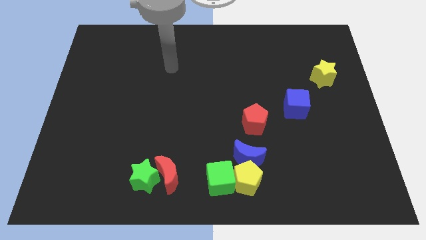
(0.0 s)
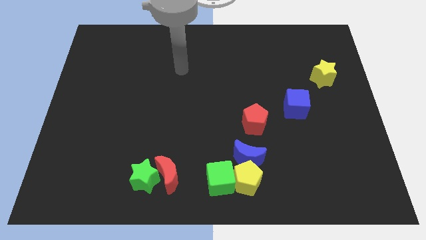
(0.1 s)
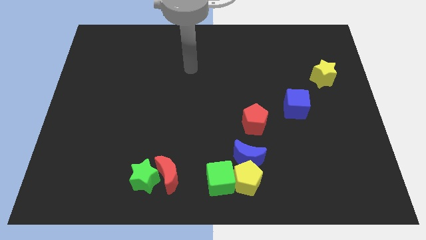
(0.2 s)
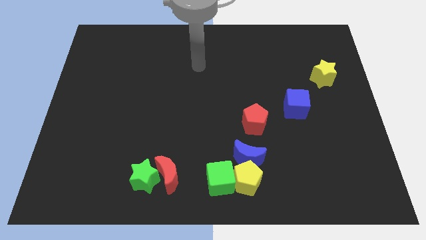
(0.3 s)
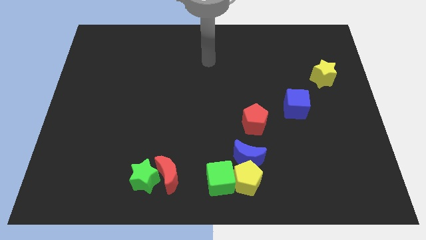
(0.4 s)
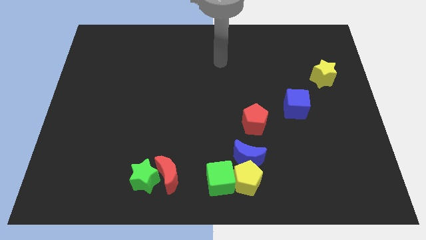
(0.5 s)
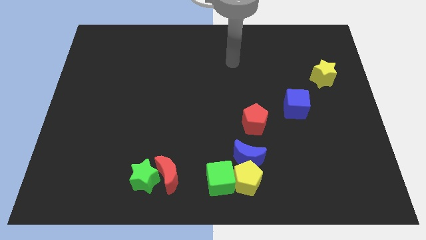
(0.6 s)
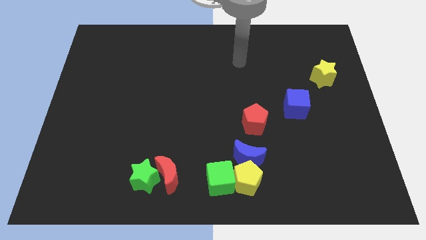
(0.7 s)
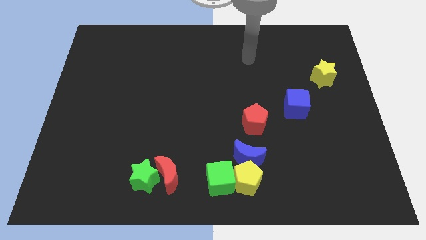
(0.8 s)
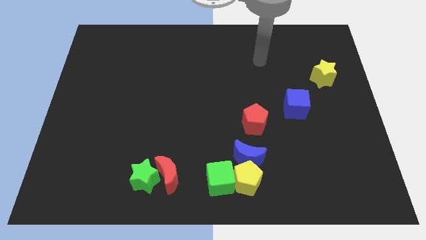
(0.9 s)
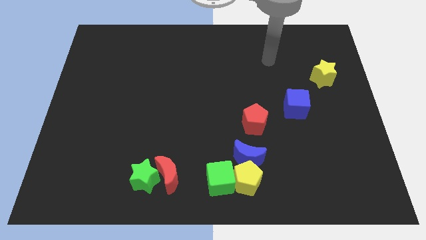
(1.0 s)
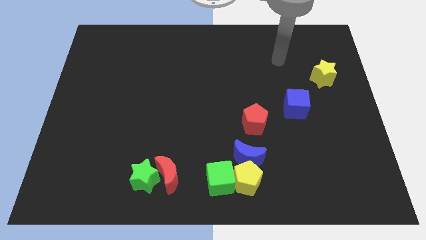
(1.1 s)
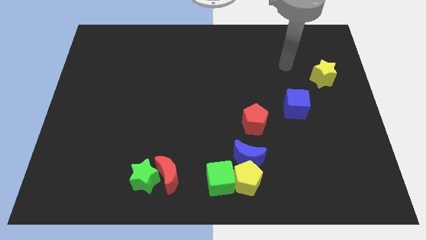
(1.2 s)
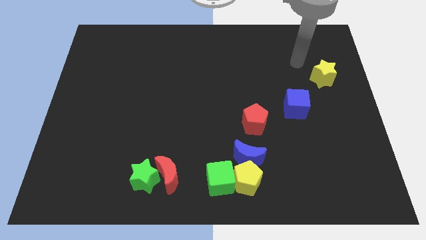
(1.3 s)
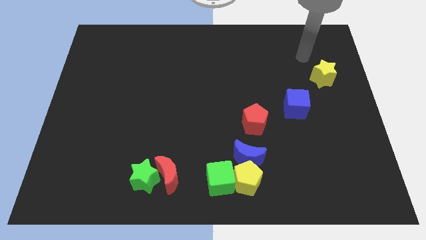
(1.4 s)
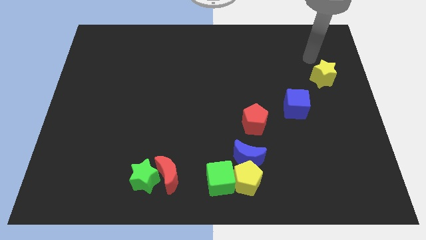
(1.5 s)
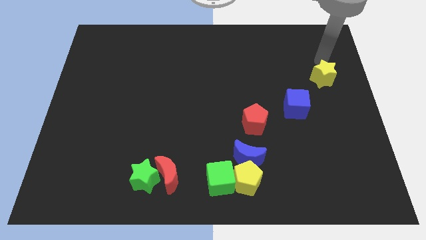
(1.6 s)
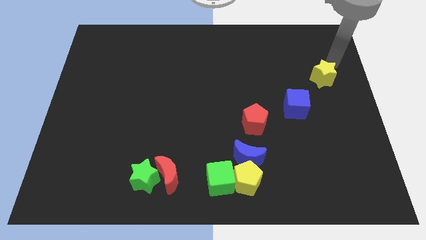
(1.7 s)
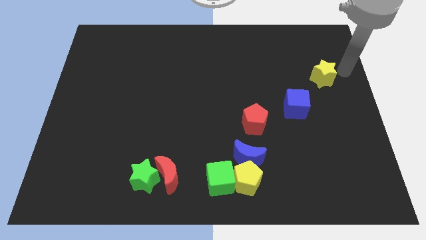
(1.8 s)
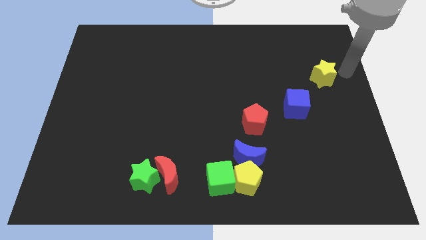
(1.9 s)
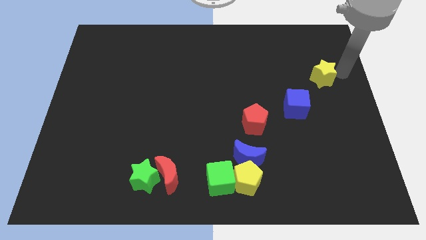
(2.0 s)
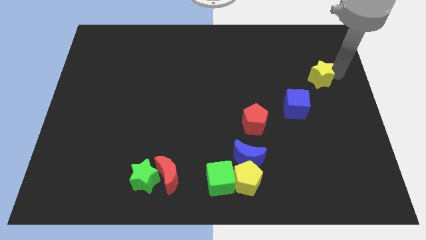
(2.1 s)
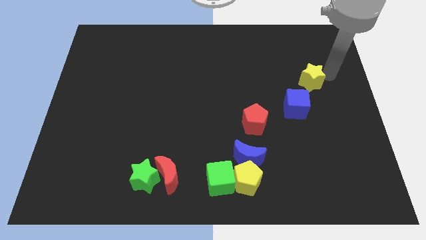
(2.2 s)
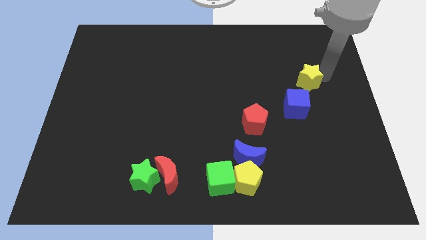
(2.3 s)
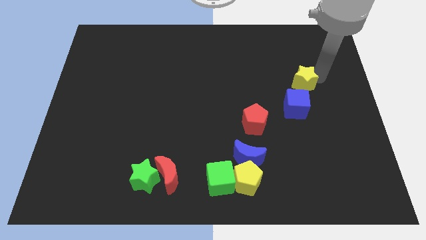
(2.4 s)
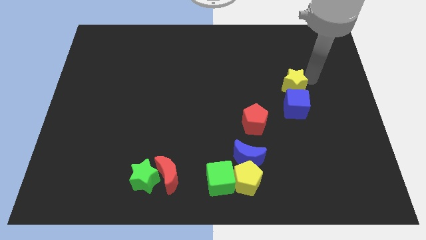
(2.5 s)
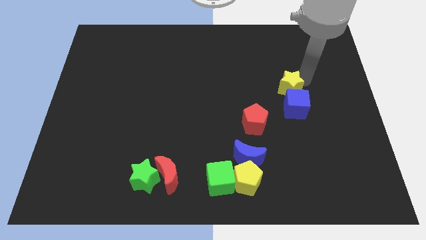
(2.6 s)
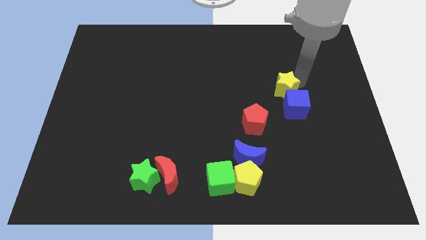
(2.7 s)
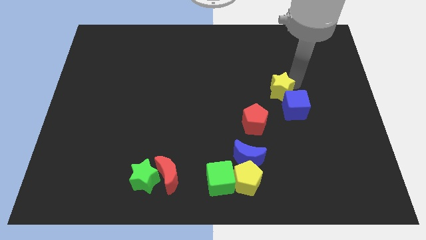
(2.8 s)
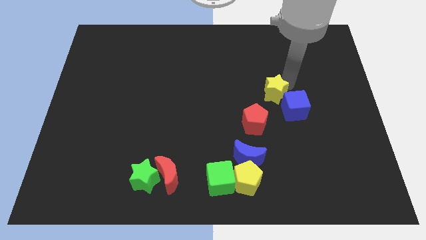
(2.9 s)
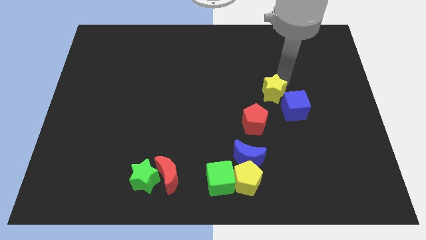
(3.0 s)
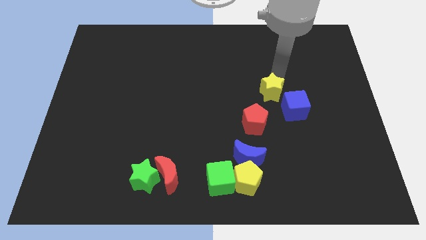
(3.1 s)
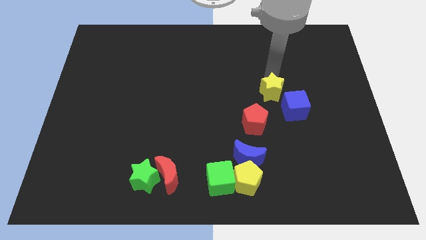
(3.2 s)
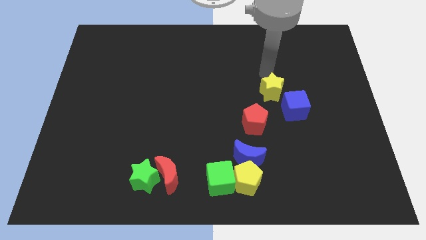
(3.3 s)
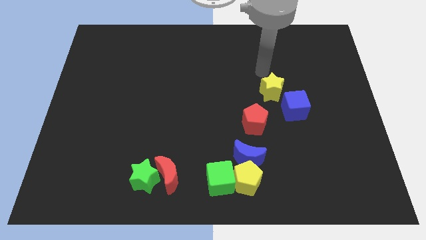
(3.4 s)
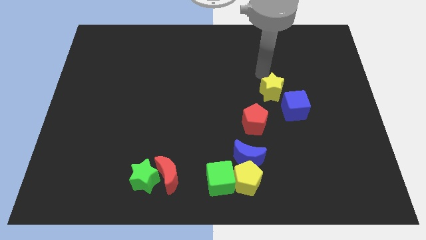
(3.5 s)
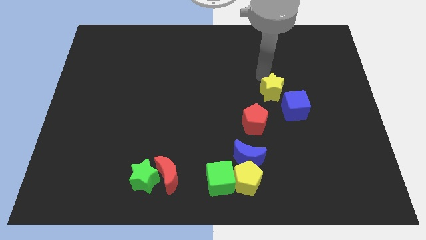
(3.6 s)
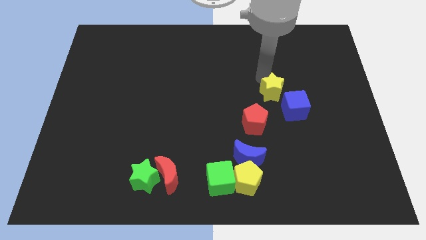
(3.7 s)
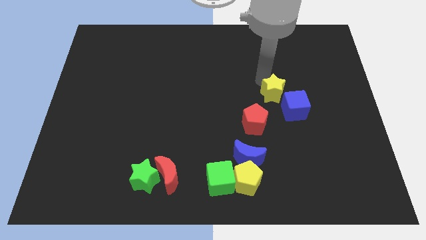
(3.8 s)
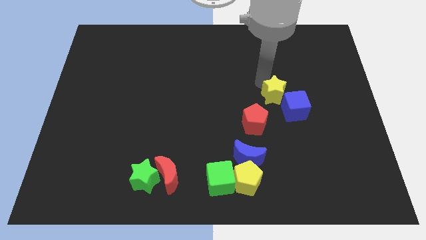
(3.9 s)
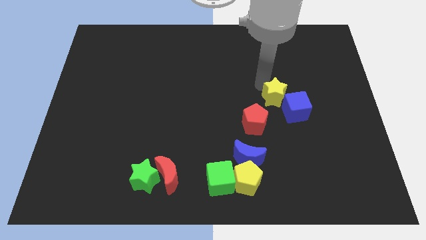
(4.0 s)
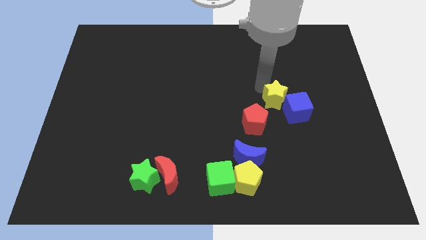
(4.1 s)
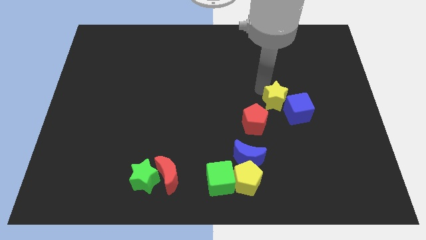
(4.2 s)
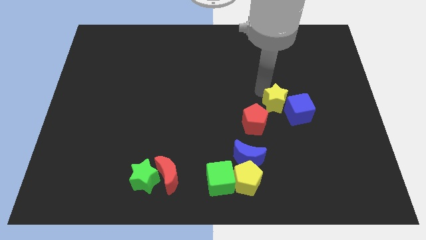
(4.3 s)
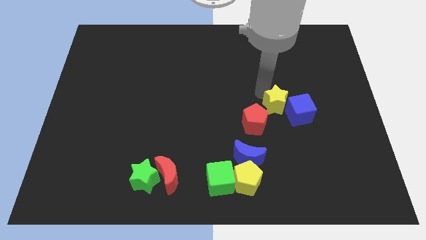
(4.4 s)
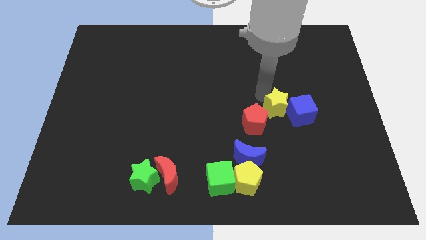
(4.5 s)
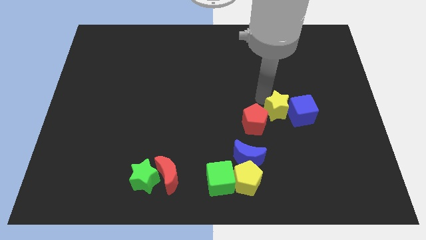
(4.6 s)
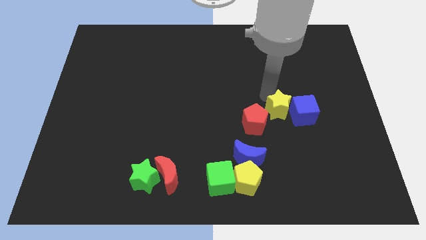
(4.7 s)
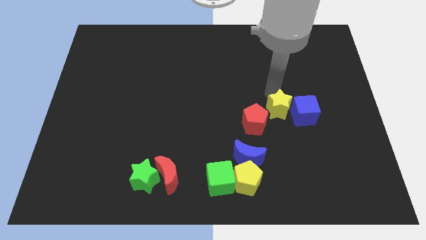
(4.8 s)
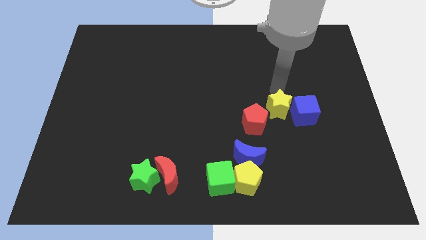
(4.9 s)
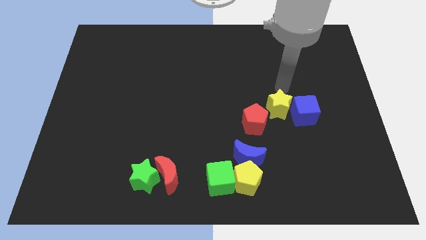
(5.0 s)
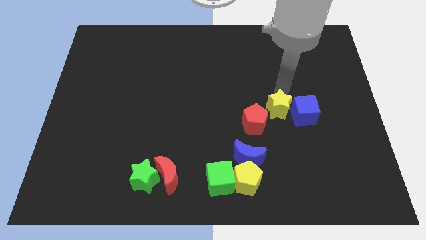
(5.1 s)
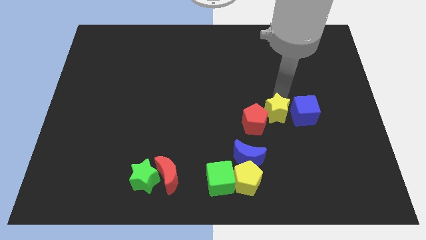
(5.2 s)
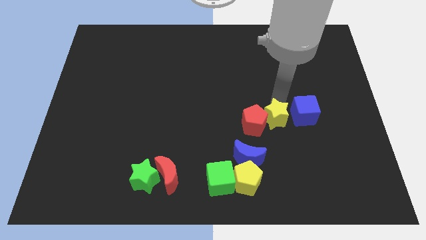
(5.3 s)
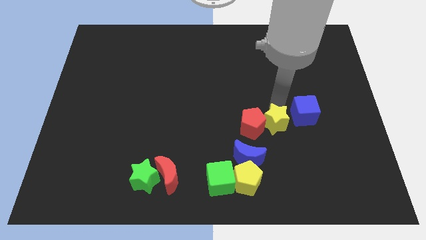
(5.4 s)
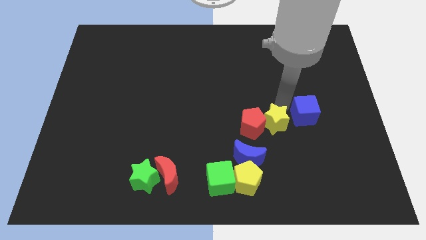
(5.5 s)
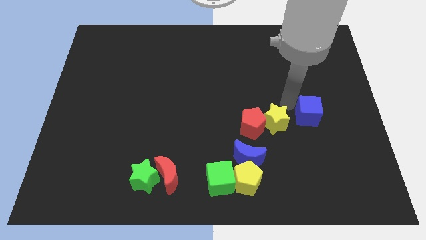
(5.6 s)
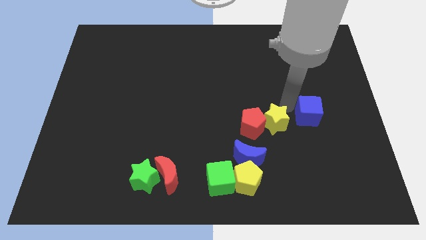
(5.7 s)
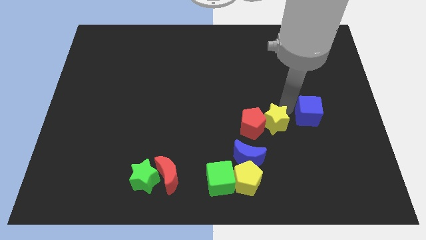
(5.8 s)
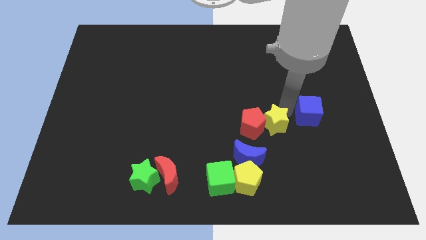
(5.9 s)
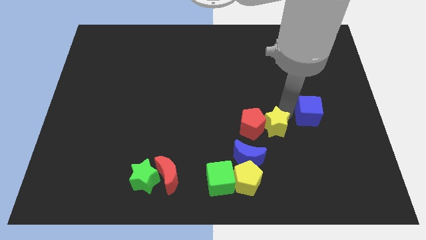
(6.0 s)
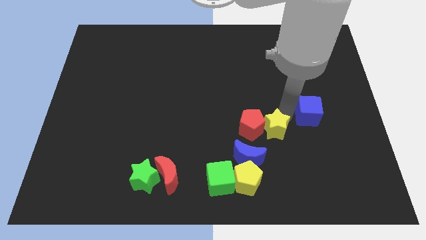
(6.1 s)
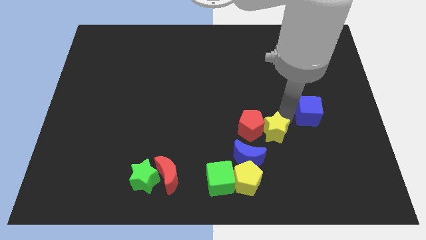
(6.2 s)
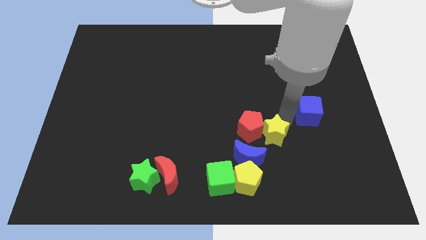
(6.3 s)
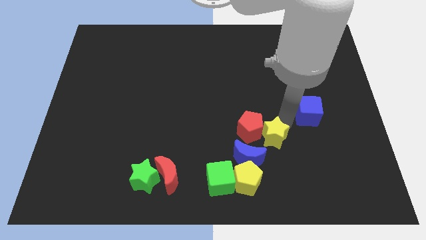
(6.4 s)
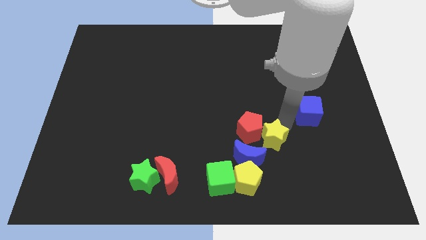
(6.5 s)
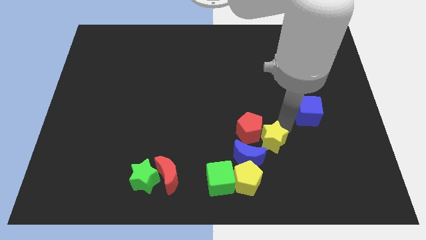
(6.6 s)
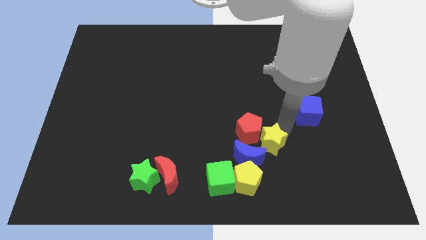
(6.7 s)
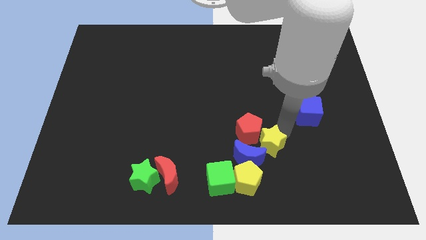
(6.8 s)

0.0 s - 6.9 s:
push the yellow star to the blue moon
